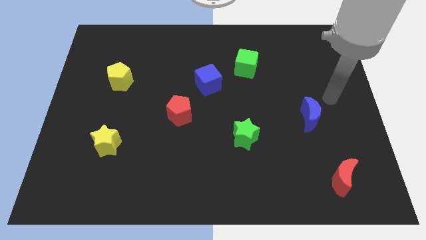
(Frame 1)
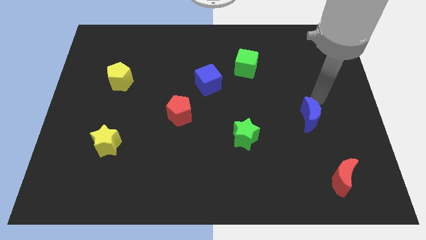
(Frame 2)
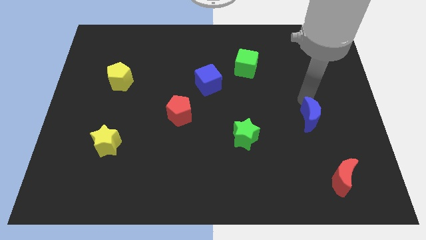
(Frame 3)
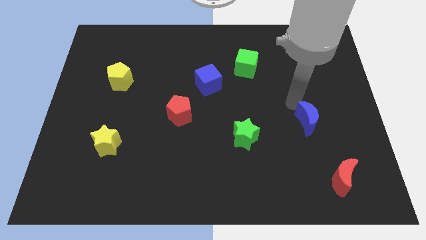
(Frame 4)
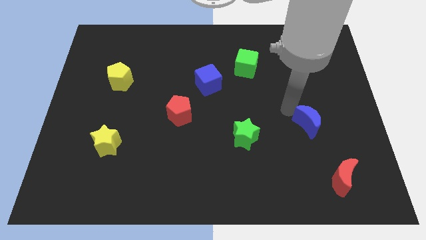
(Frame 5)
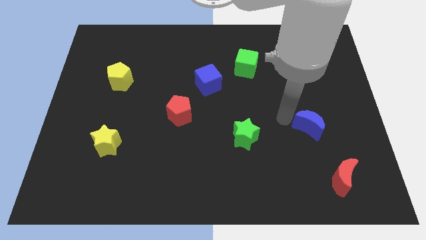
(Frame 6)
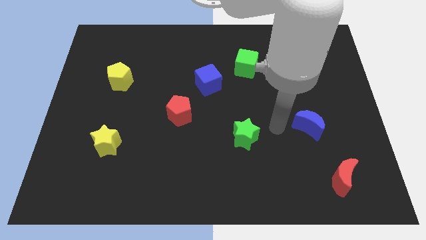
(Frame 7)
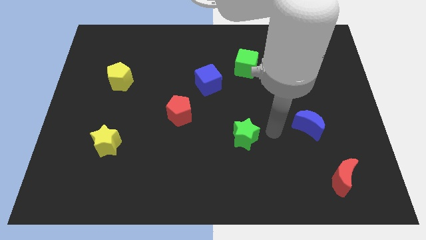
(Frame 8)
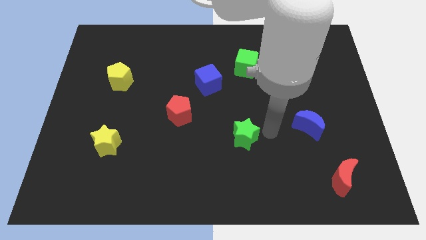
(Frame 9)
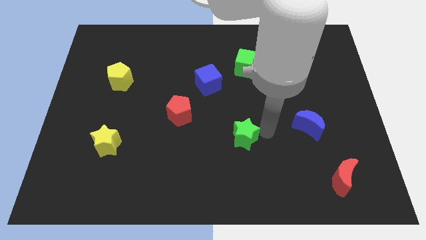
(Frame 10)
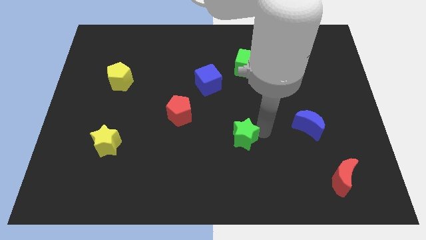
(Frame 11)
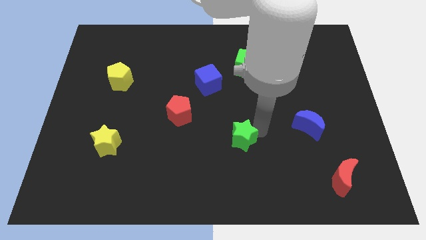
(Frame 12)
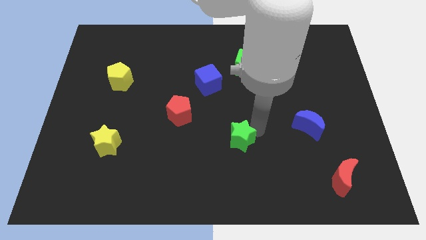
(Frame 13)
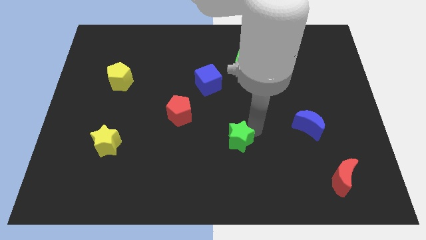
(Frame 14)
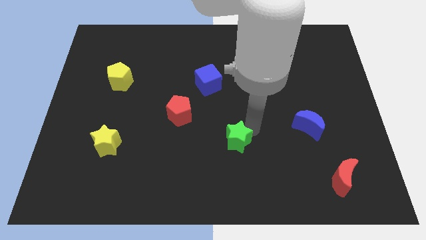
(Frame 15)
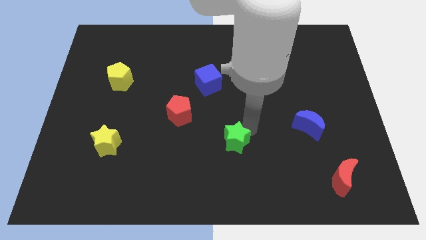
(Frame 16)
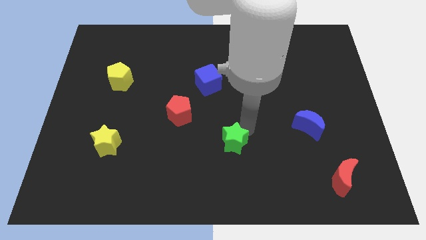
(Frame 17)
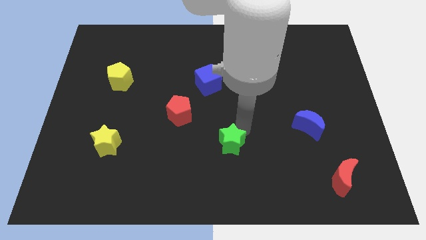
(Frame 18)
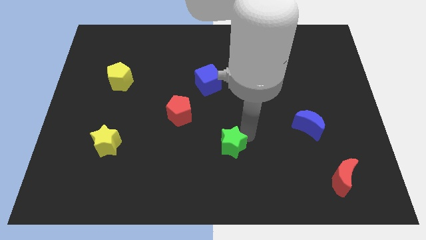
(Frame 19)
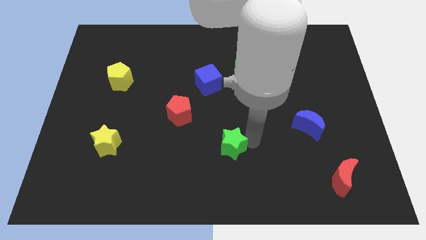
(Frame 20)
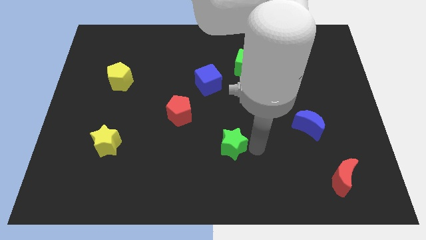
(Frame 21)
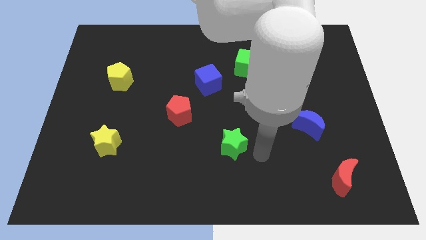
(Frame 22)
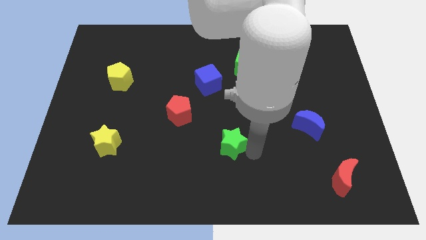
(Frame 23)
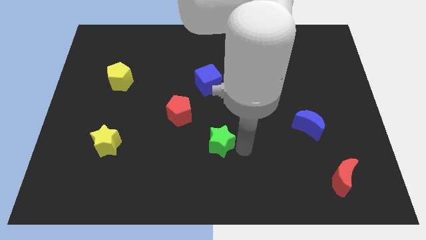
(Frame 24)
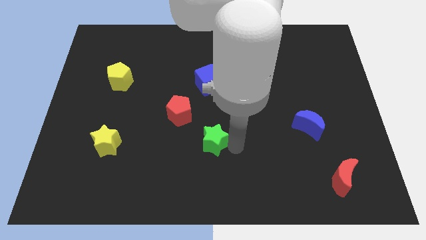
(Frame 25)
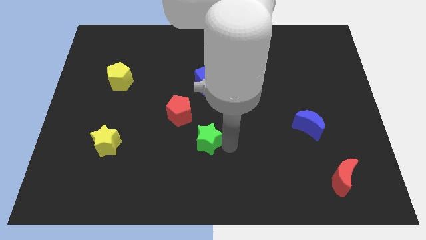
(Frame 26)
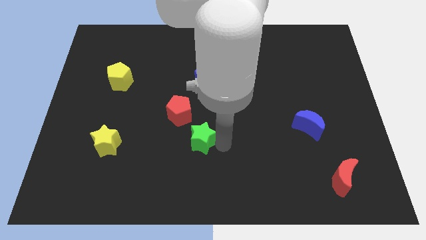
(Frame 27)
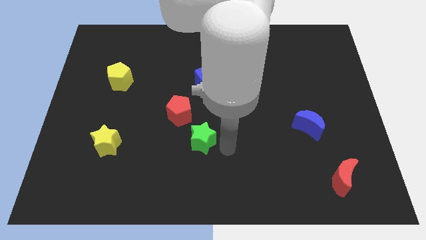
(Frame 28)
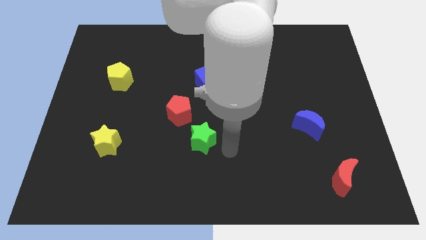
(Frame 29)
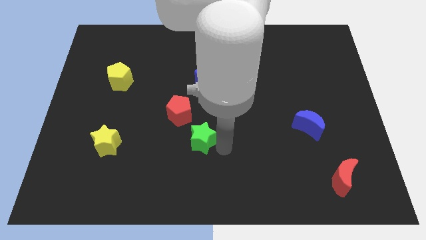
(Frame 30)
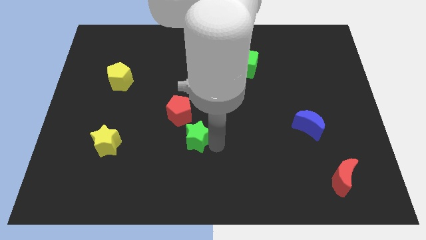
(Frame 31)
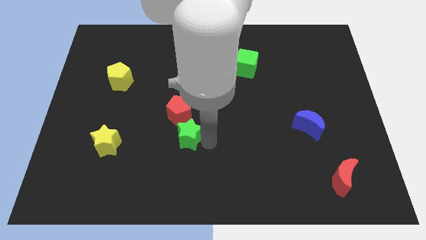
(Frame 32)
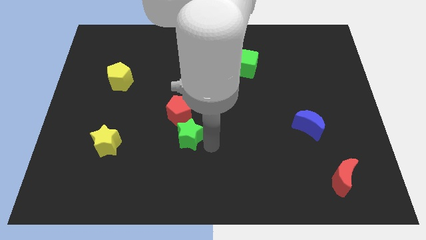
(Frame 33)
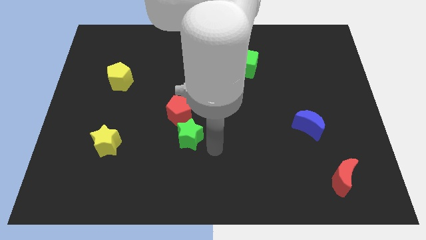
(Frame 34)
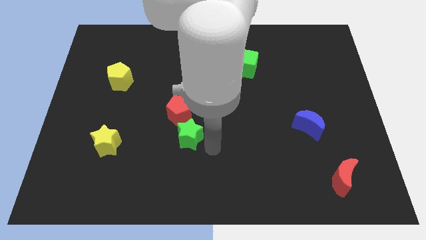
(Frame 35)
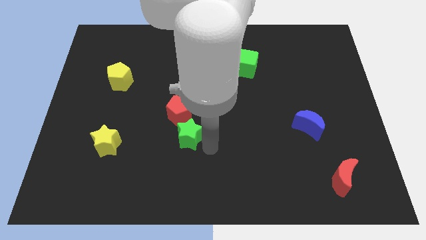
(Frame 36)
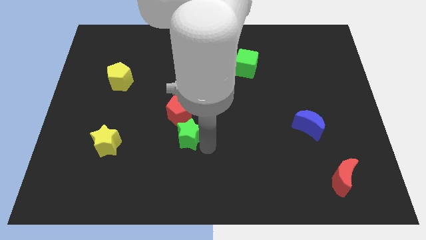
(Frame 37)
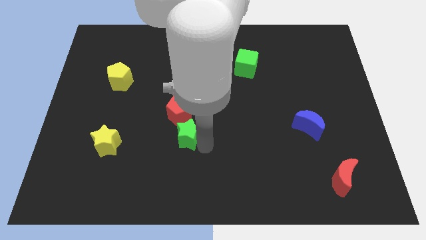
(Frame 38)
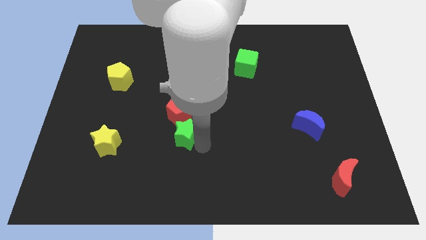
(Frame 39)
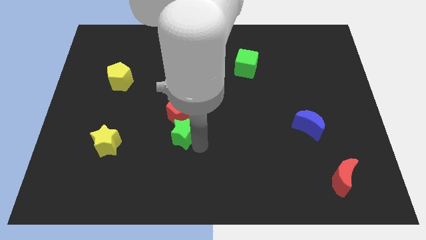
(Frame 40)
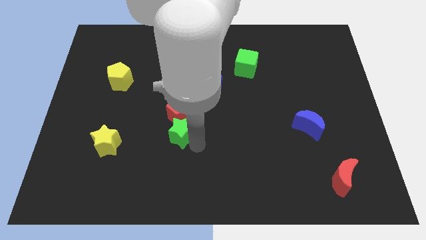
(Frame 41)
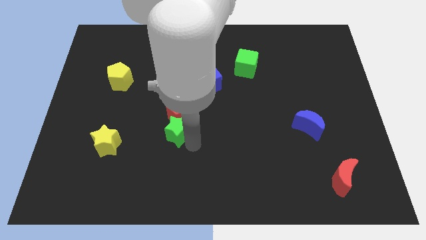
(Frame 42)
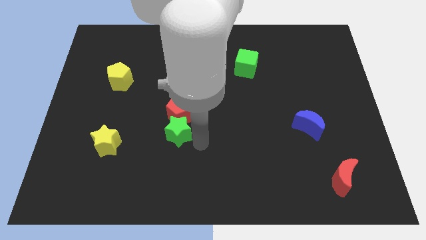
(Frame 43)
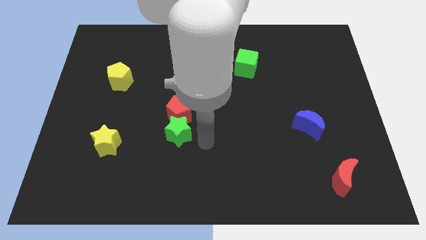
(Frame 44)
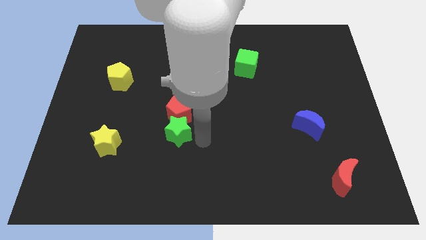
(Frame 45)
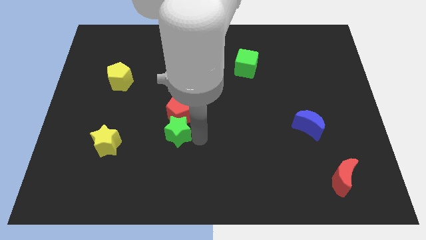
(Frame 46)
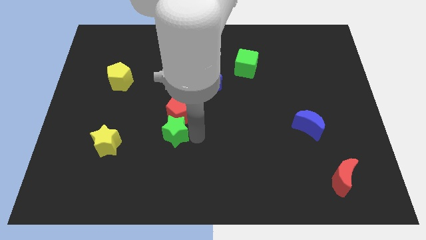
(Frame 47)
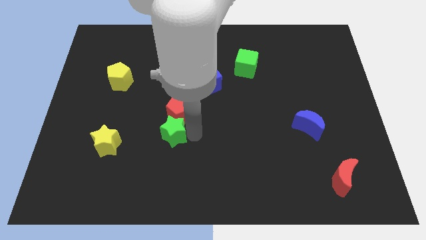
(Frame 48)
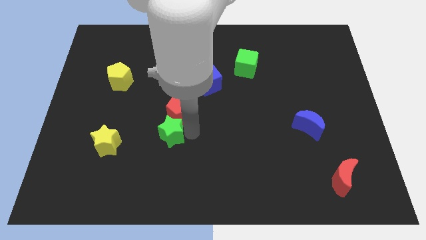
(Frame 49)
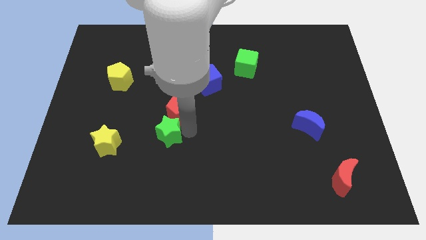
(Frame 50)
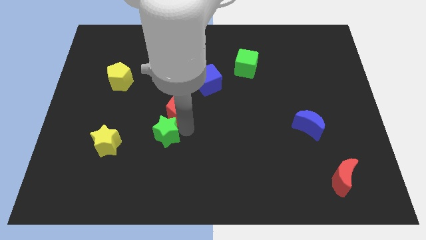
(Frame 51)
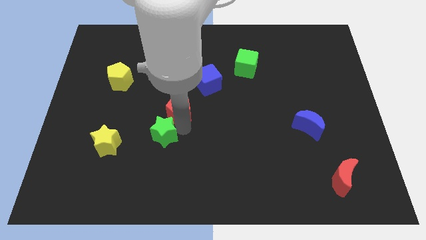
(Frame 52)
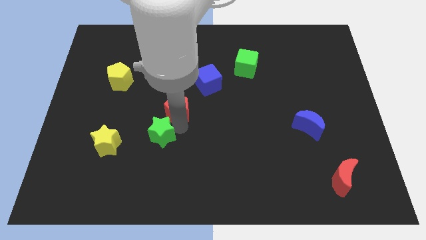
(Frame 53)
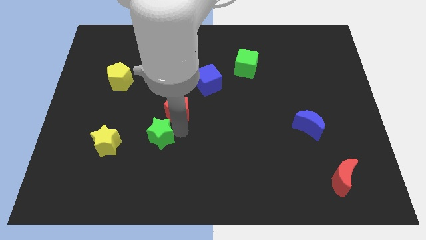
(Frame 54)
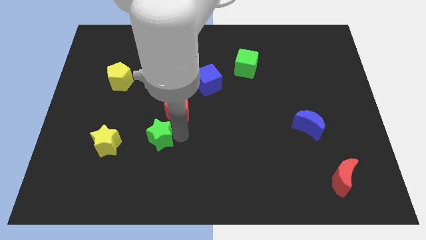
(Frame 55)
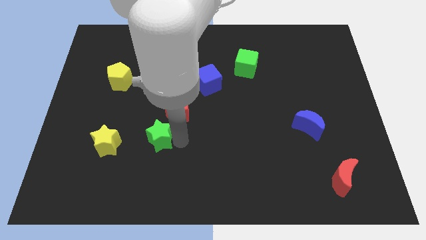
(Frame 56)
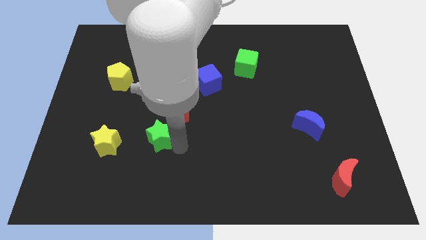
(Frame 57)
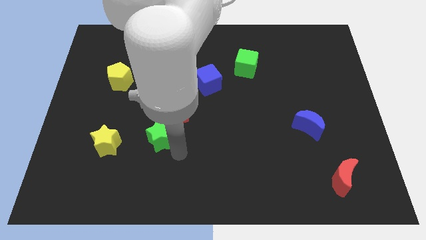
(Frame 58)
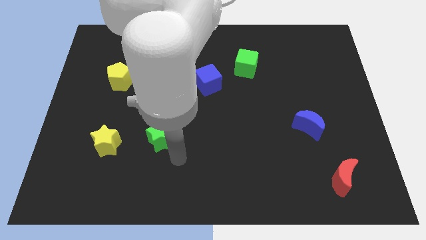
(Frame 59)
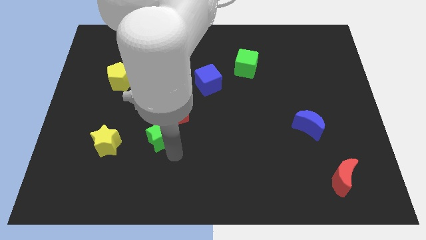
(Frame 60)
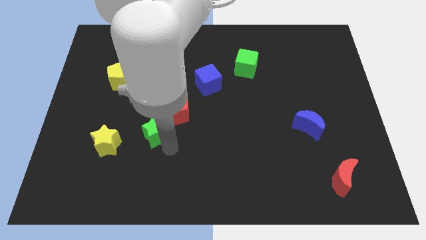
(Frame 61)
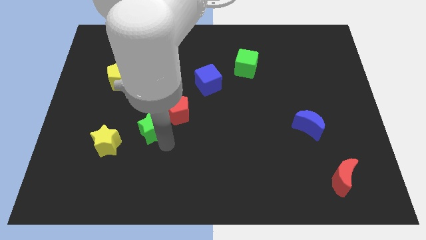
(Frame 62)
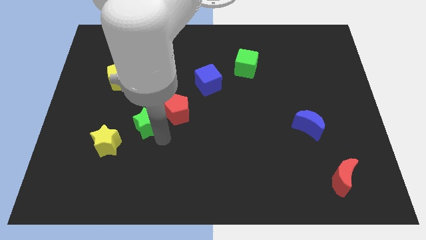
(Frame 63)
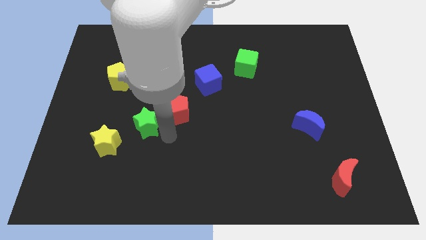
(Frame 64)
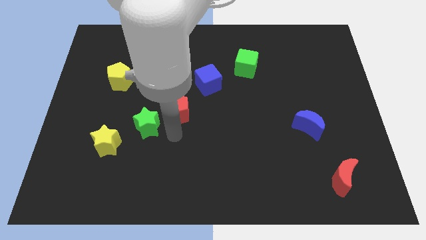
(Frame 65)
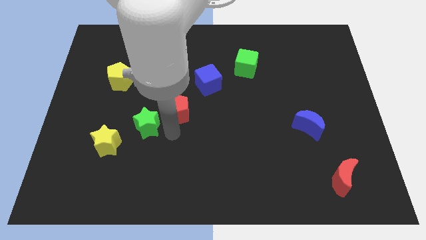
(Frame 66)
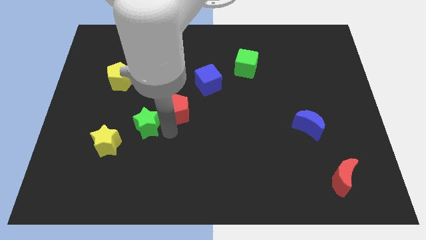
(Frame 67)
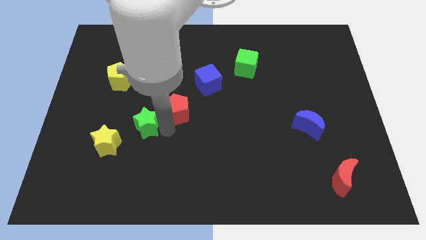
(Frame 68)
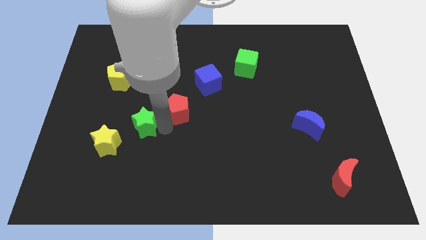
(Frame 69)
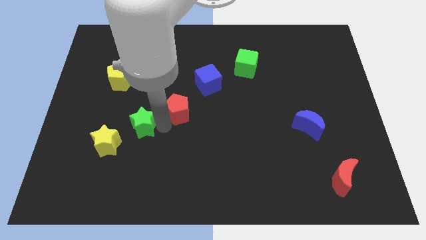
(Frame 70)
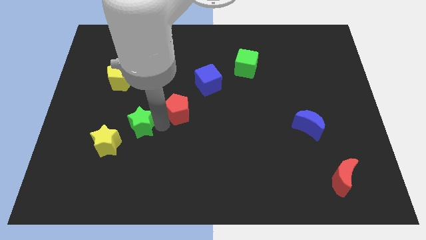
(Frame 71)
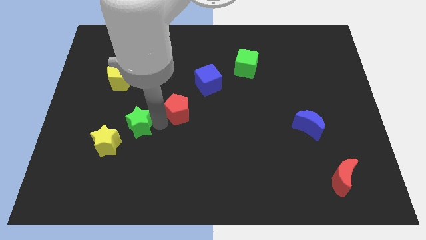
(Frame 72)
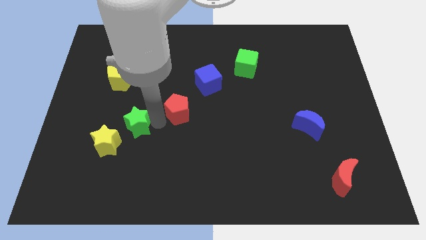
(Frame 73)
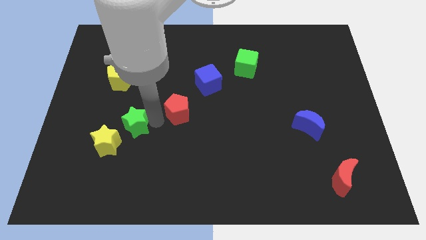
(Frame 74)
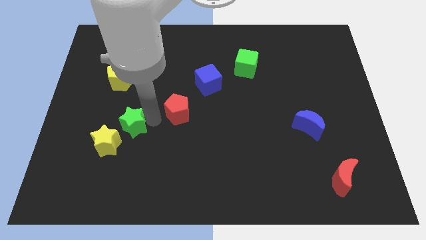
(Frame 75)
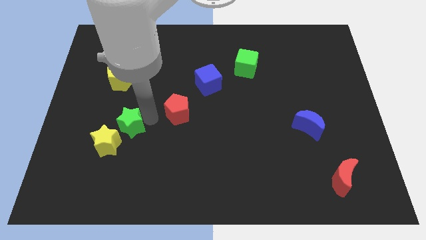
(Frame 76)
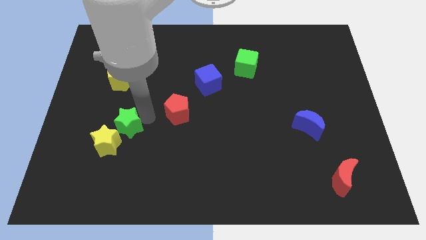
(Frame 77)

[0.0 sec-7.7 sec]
put the green star to the bottom of the yellow pentagon
